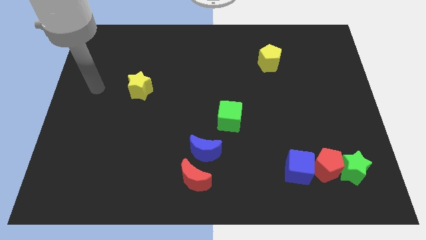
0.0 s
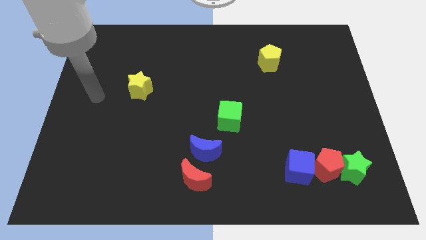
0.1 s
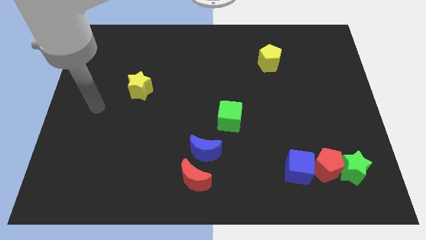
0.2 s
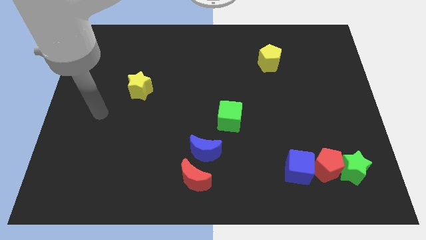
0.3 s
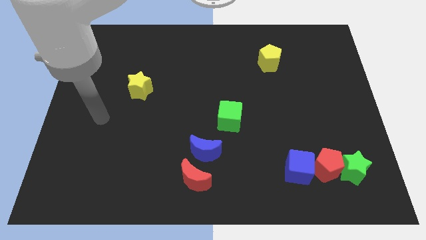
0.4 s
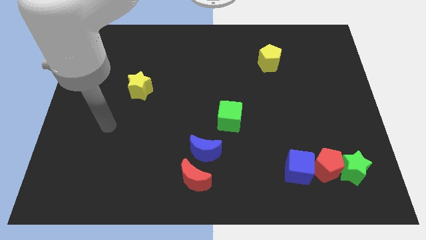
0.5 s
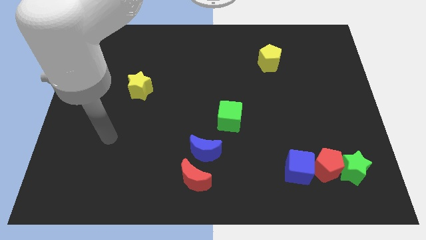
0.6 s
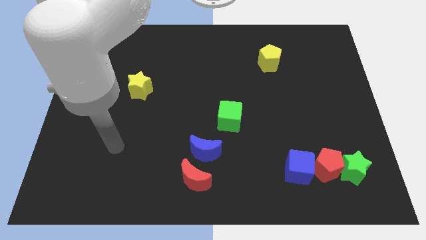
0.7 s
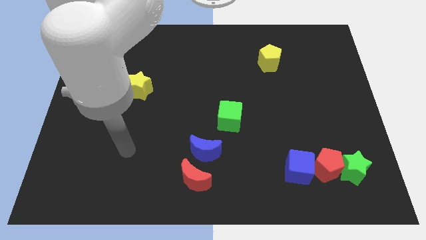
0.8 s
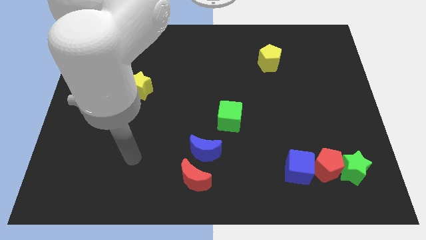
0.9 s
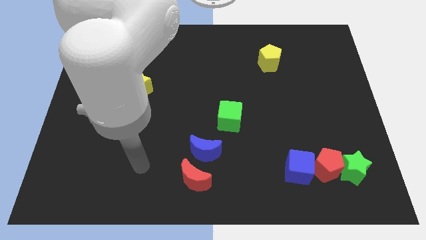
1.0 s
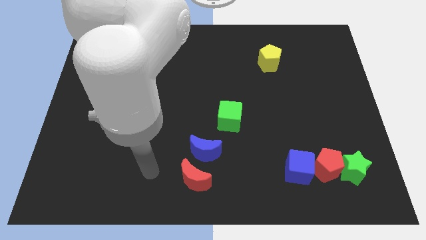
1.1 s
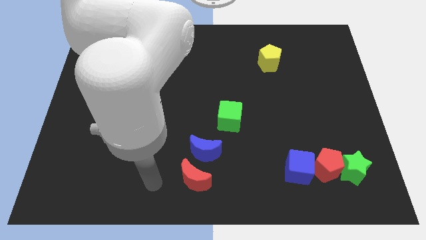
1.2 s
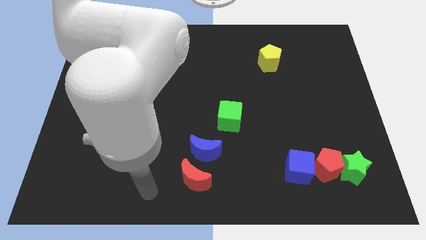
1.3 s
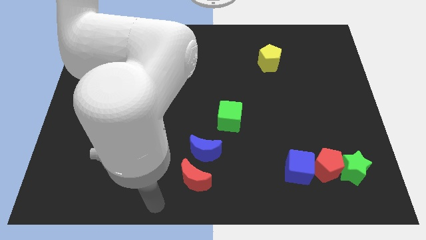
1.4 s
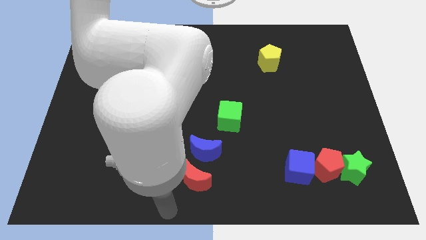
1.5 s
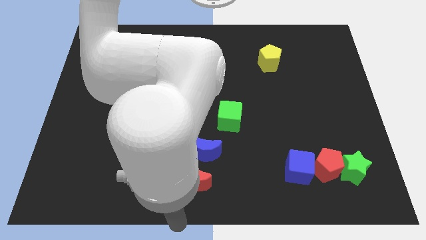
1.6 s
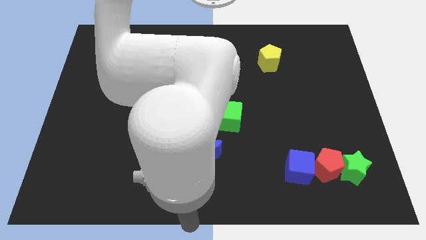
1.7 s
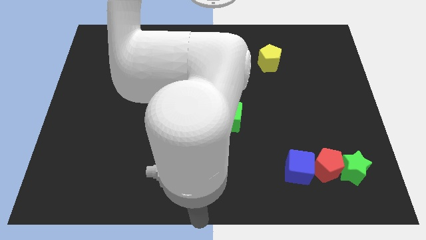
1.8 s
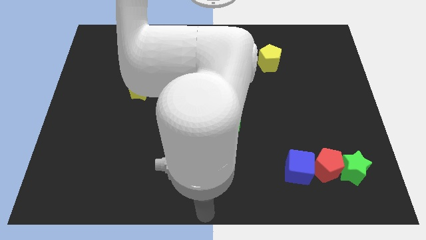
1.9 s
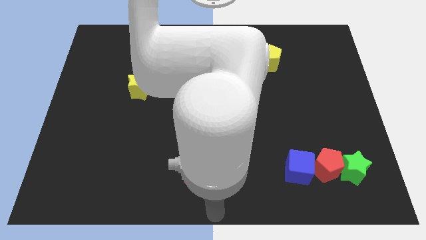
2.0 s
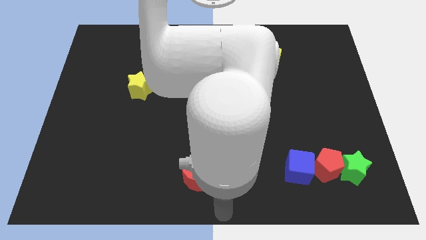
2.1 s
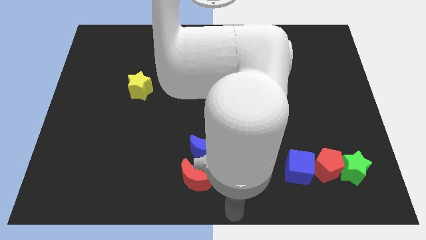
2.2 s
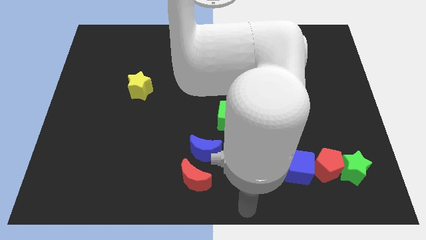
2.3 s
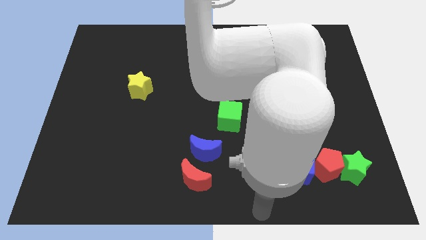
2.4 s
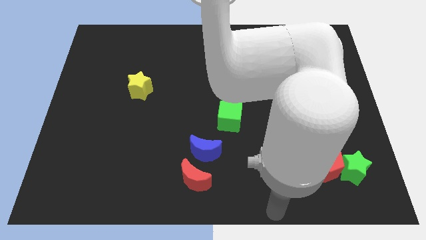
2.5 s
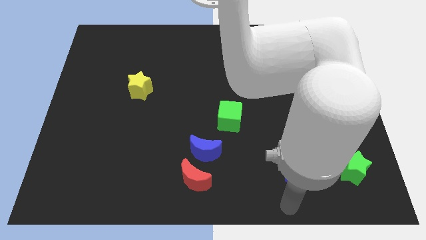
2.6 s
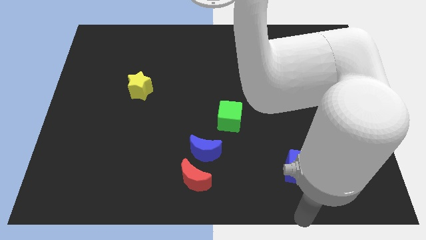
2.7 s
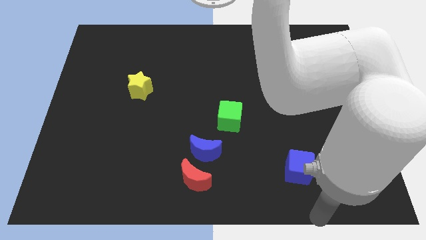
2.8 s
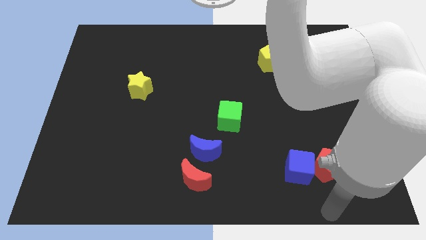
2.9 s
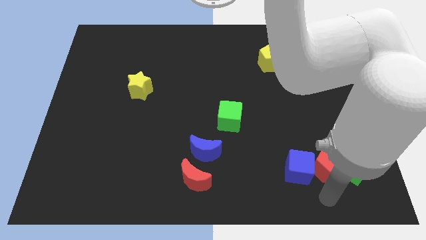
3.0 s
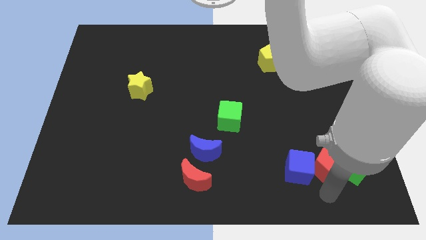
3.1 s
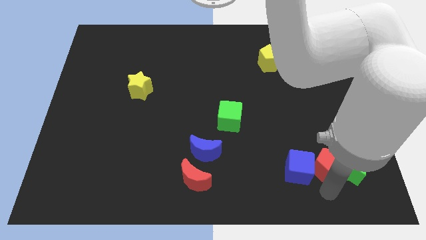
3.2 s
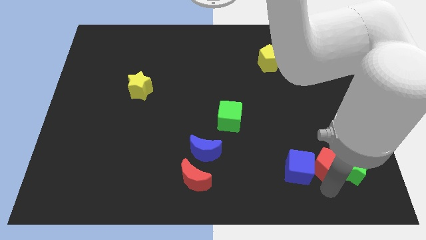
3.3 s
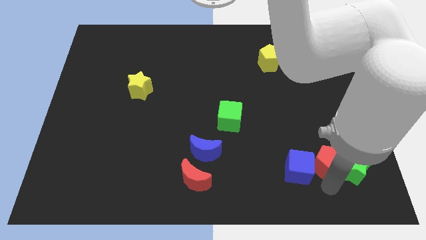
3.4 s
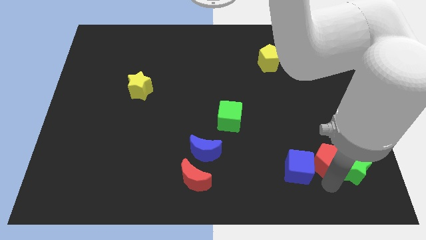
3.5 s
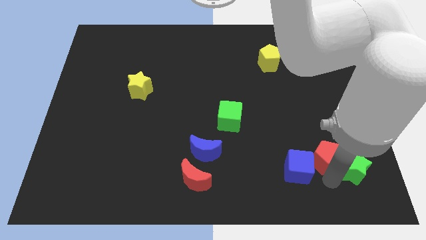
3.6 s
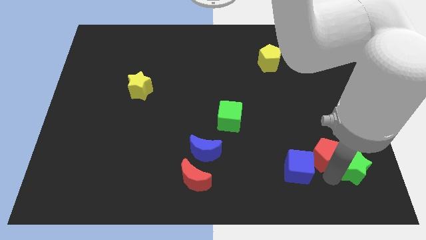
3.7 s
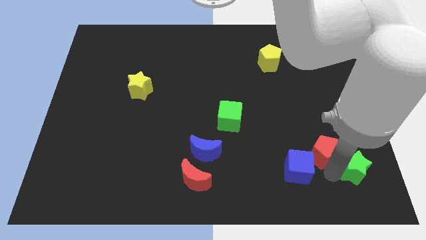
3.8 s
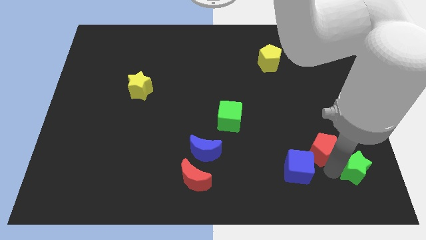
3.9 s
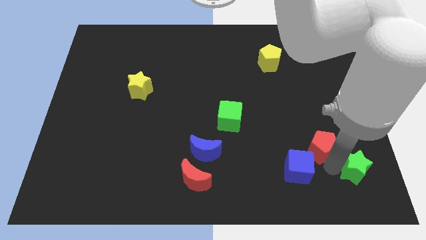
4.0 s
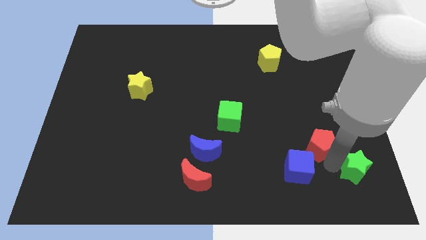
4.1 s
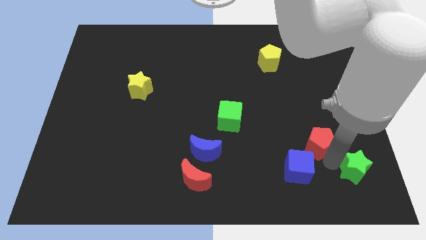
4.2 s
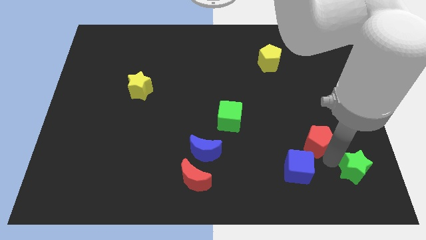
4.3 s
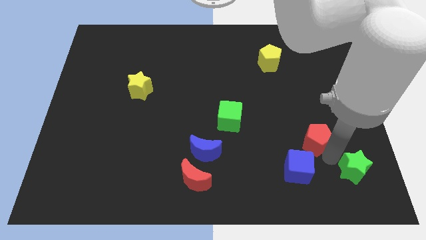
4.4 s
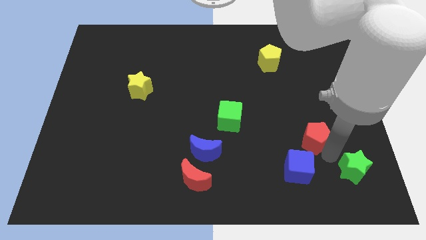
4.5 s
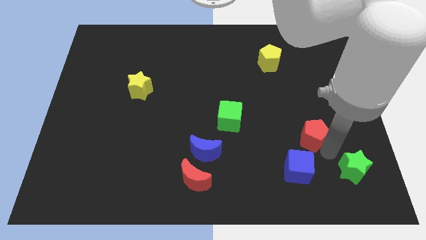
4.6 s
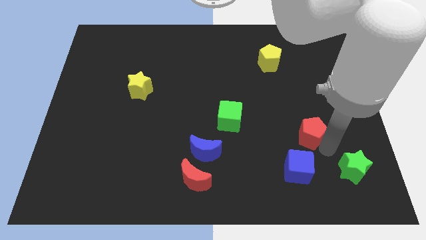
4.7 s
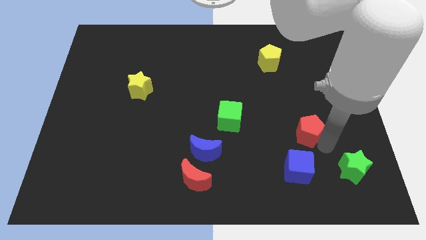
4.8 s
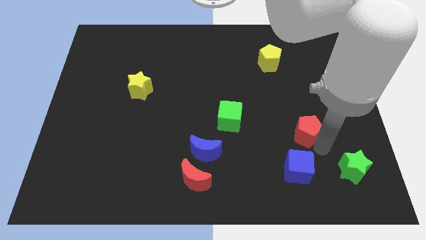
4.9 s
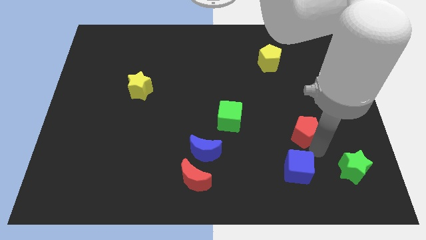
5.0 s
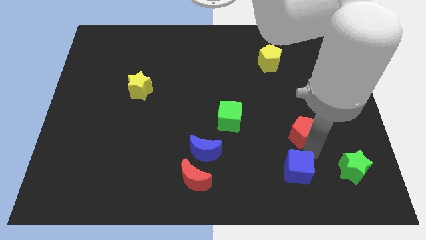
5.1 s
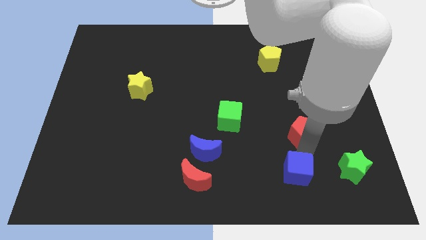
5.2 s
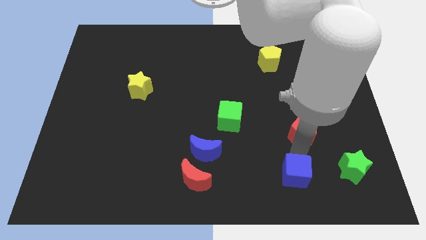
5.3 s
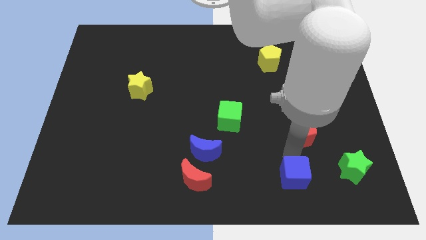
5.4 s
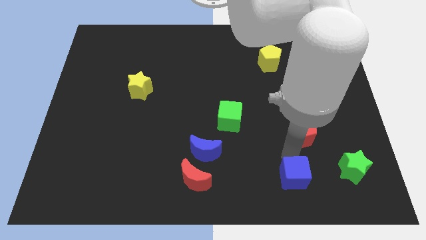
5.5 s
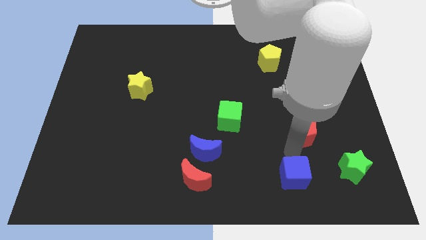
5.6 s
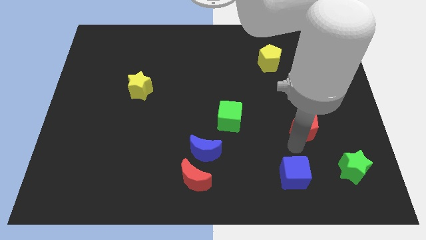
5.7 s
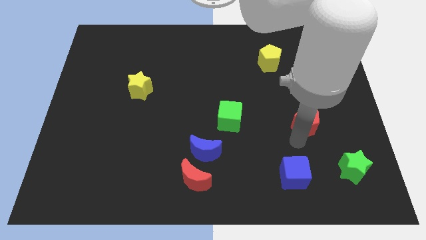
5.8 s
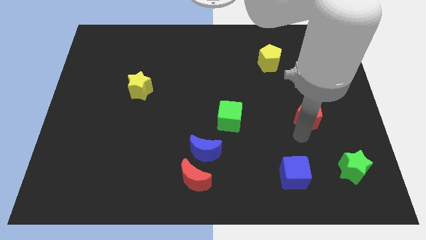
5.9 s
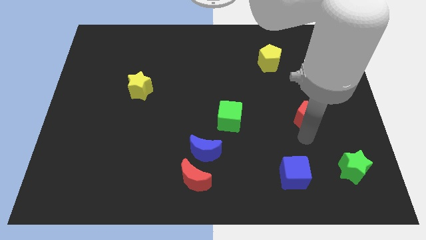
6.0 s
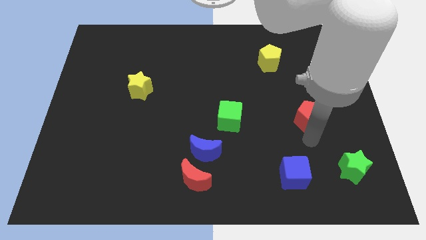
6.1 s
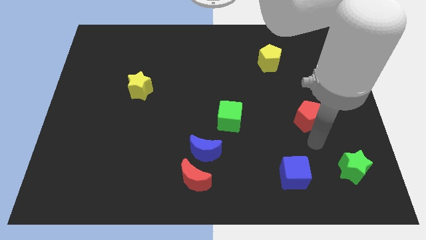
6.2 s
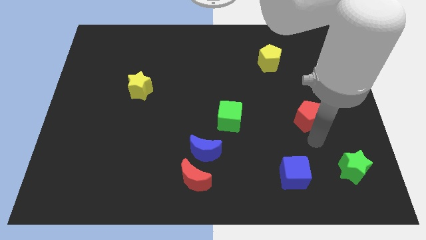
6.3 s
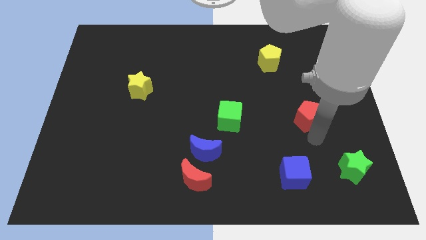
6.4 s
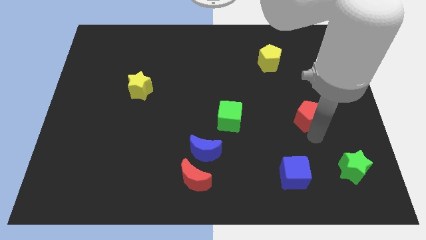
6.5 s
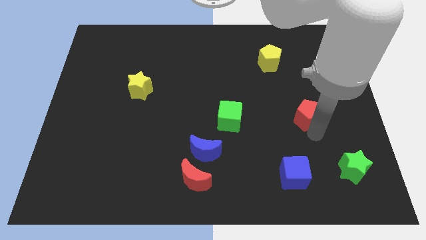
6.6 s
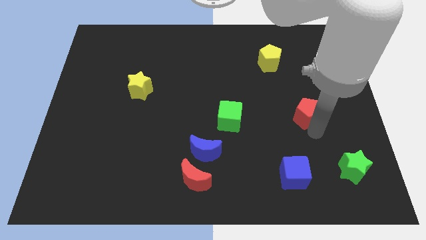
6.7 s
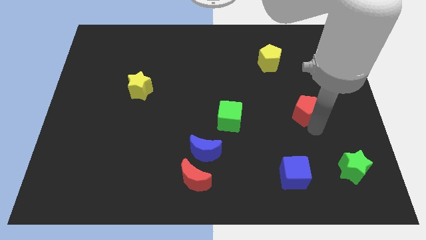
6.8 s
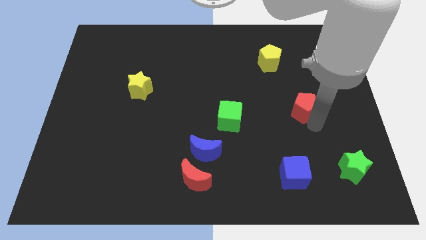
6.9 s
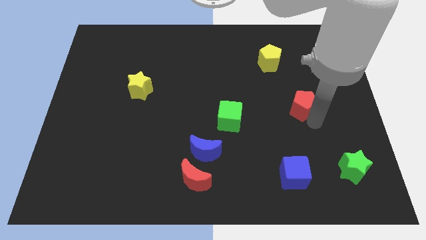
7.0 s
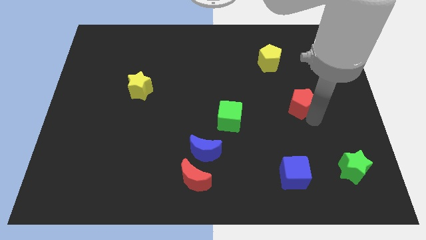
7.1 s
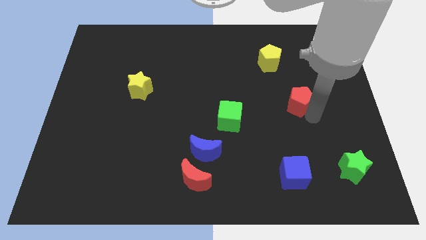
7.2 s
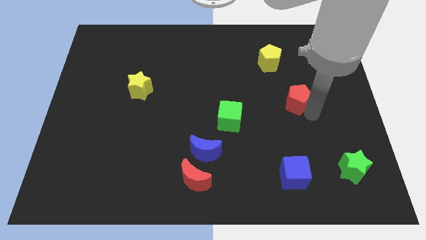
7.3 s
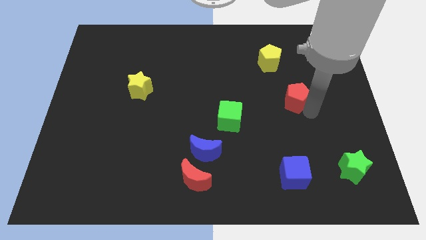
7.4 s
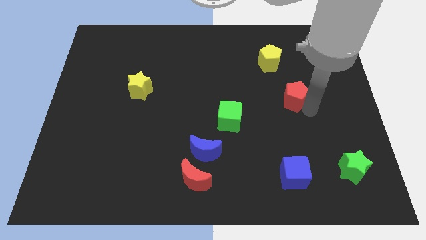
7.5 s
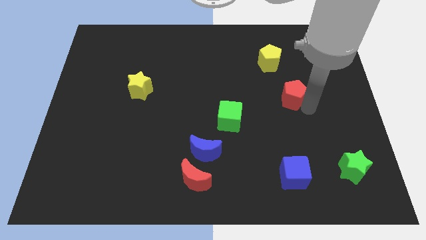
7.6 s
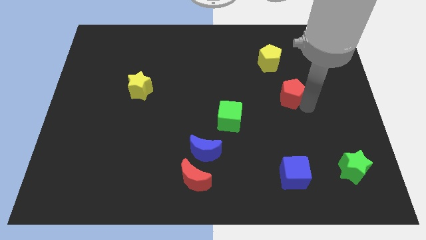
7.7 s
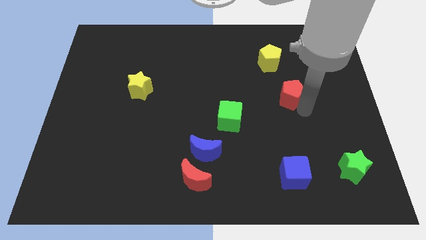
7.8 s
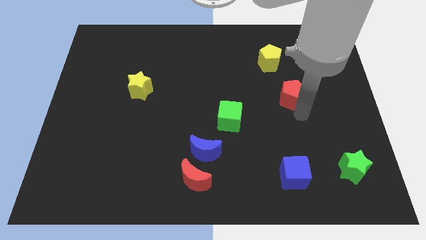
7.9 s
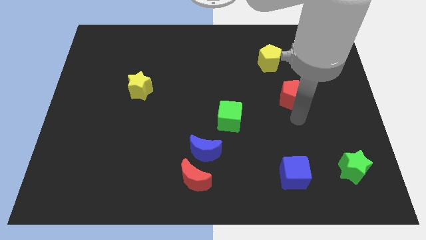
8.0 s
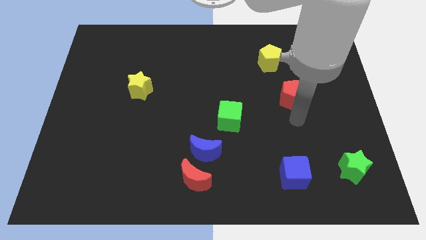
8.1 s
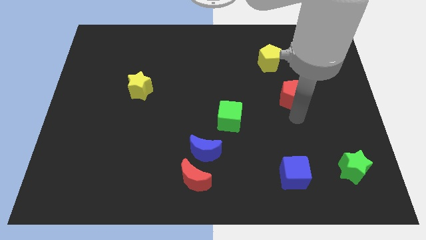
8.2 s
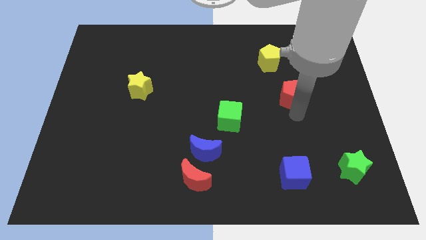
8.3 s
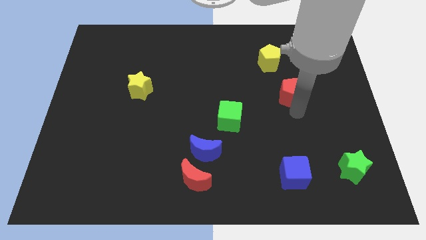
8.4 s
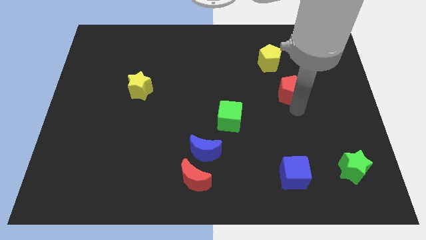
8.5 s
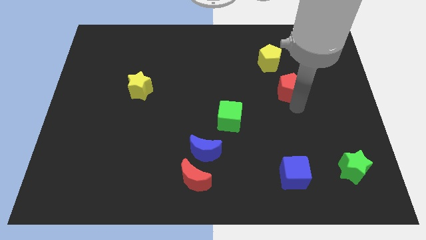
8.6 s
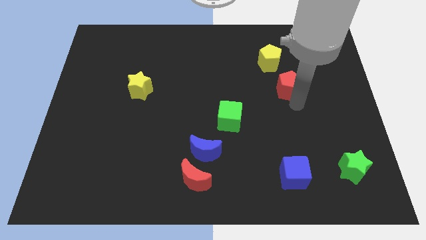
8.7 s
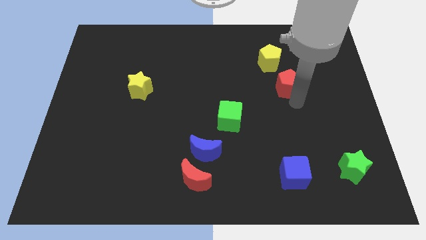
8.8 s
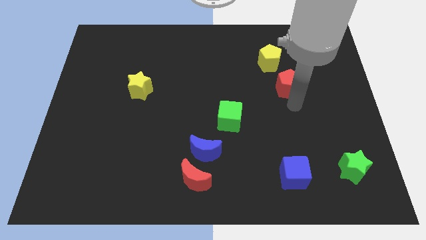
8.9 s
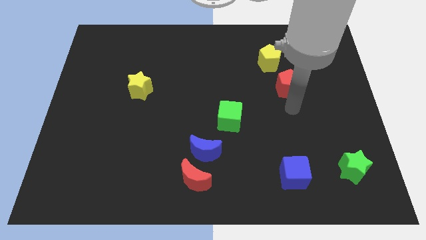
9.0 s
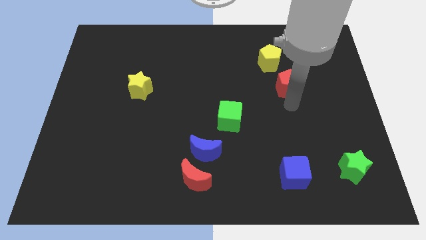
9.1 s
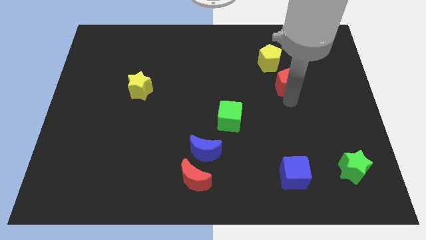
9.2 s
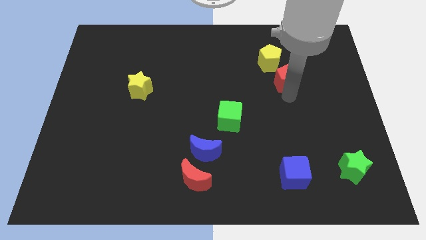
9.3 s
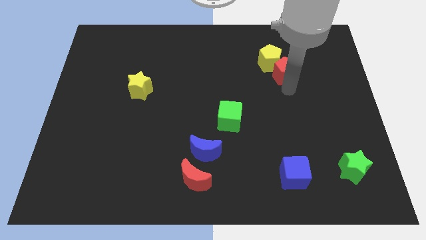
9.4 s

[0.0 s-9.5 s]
put the red pentagon to the yellow pentagon
